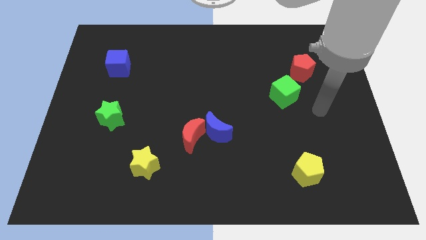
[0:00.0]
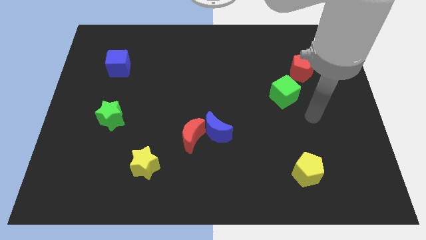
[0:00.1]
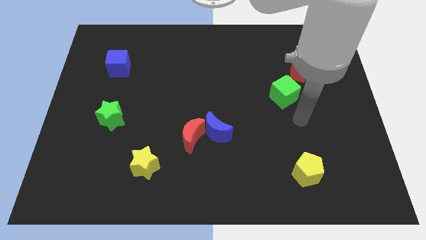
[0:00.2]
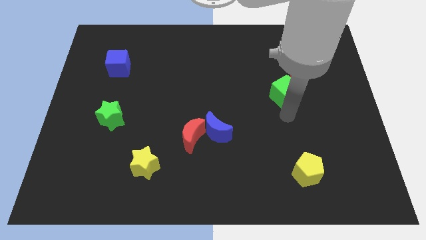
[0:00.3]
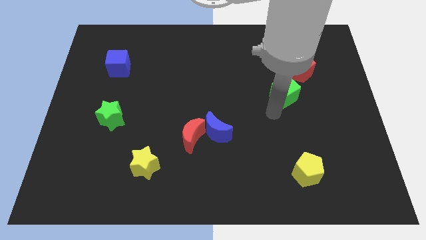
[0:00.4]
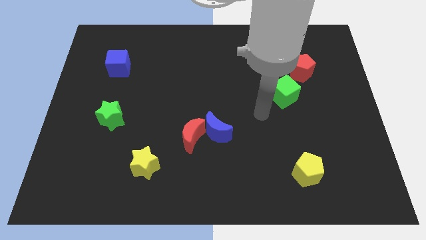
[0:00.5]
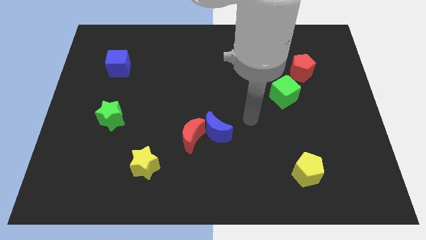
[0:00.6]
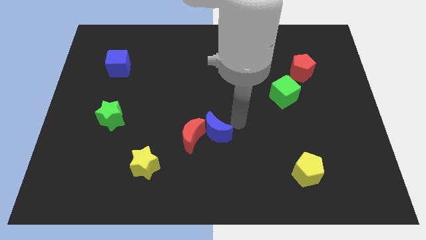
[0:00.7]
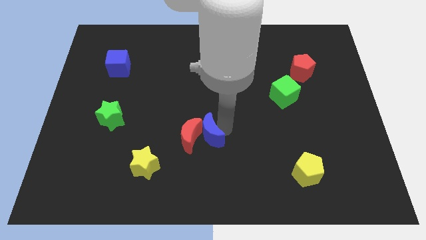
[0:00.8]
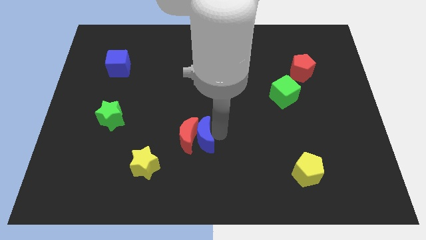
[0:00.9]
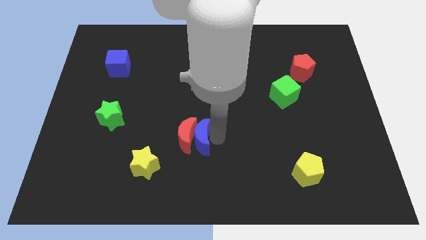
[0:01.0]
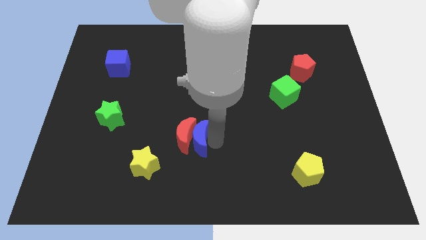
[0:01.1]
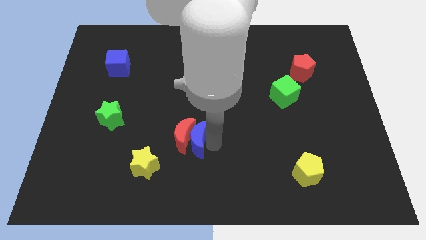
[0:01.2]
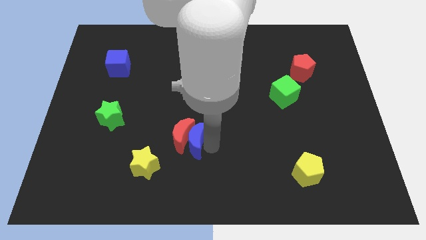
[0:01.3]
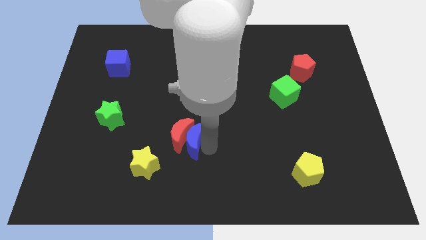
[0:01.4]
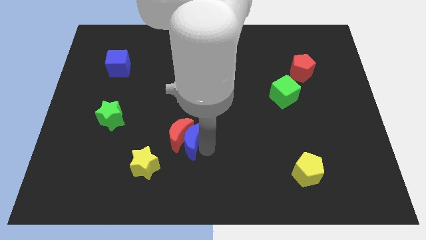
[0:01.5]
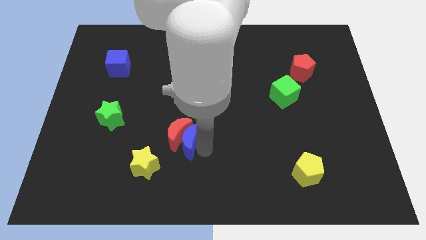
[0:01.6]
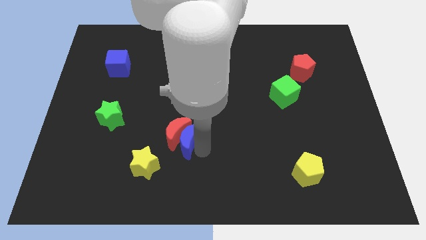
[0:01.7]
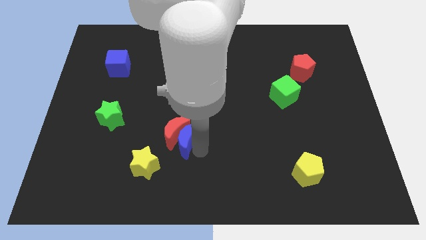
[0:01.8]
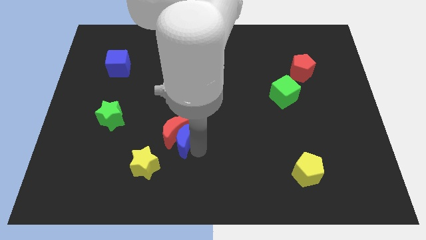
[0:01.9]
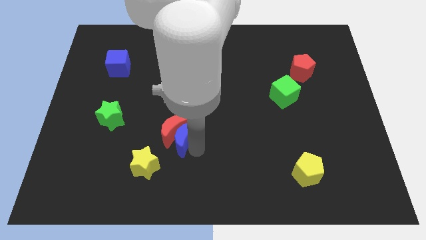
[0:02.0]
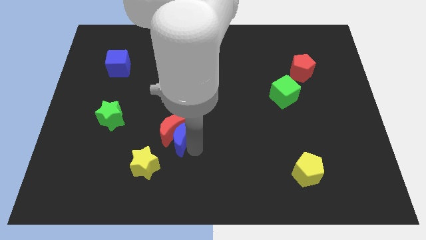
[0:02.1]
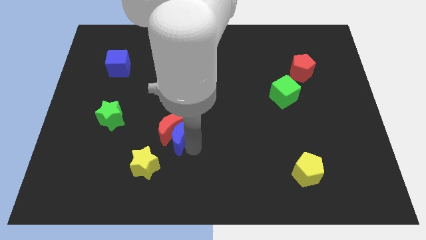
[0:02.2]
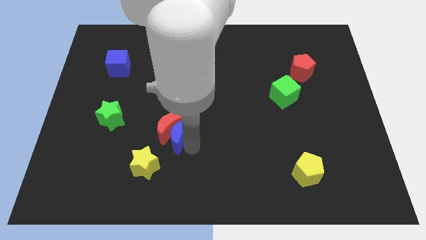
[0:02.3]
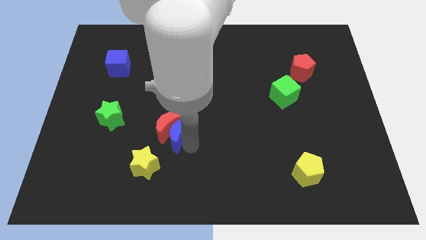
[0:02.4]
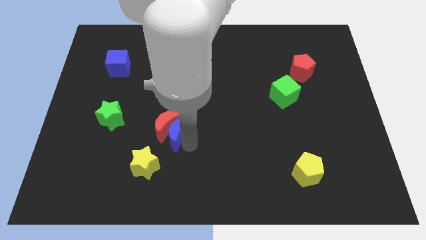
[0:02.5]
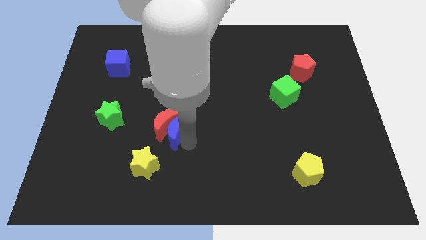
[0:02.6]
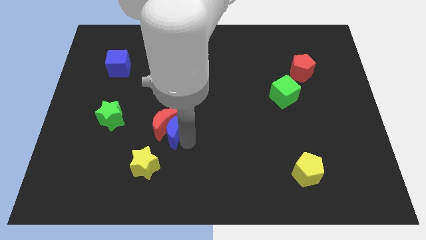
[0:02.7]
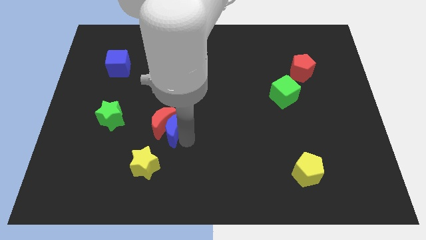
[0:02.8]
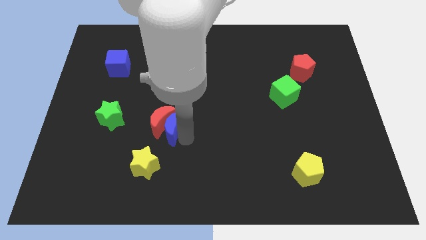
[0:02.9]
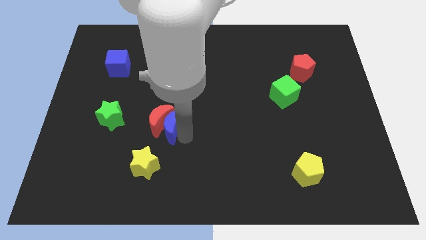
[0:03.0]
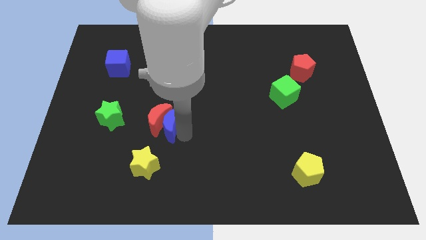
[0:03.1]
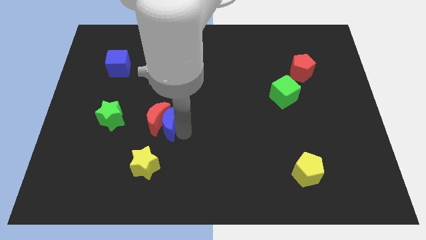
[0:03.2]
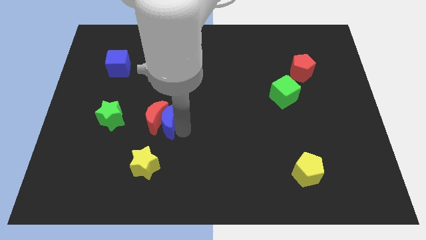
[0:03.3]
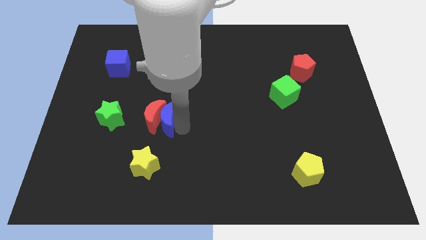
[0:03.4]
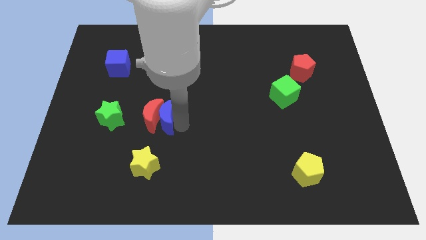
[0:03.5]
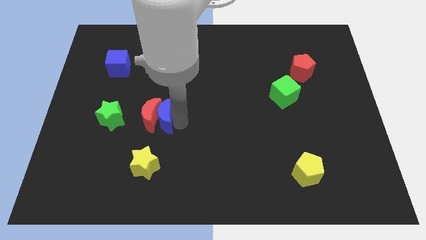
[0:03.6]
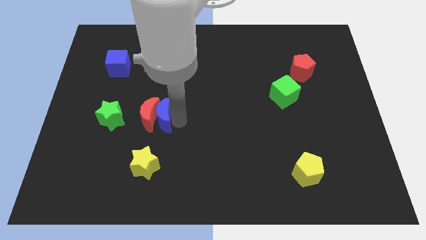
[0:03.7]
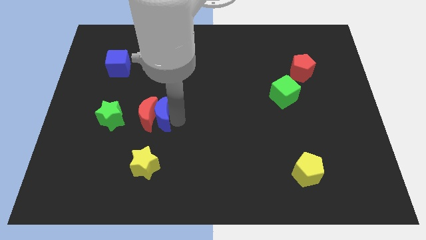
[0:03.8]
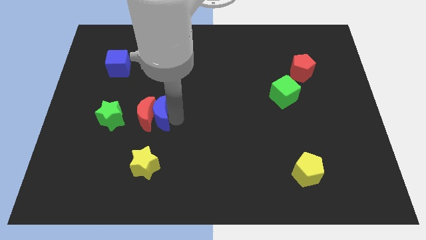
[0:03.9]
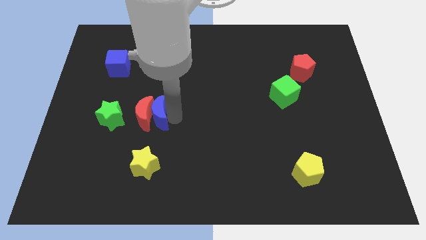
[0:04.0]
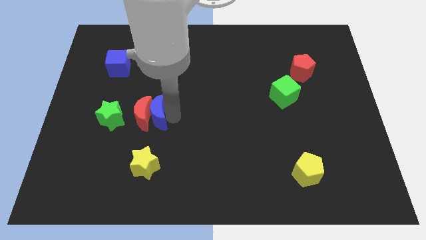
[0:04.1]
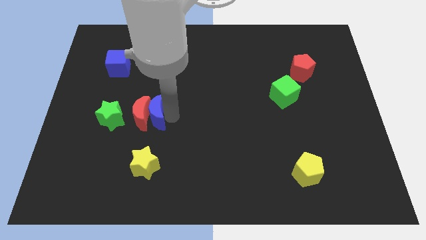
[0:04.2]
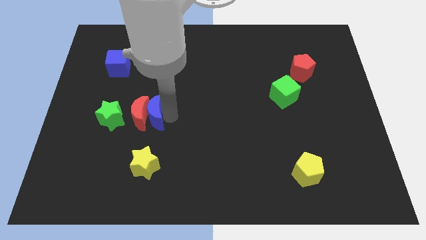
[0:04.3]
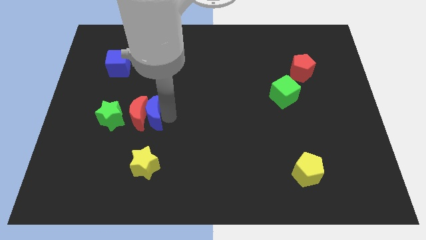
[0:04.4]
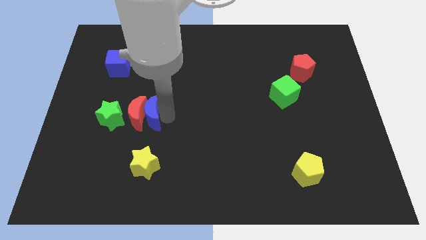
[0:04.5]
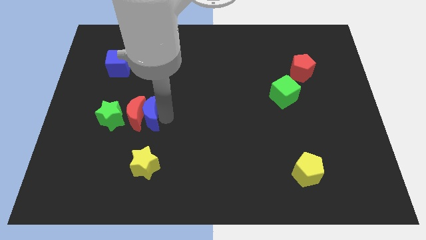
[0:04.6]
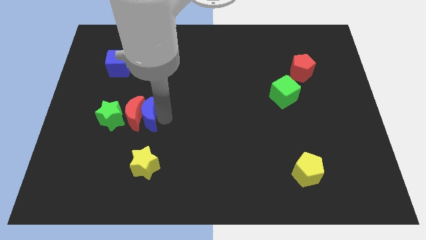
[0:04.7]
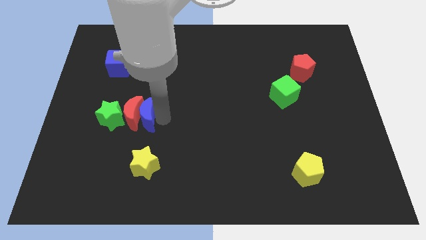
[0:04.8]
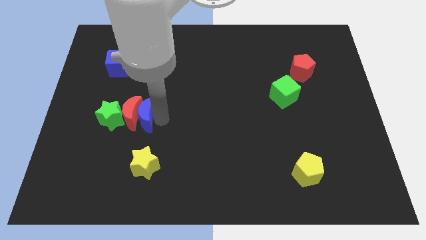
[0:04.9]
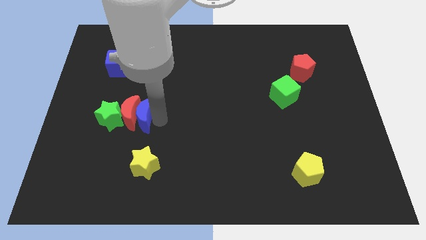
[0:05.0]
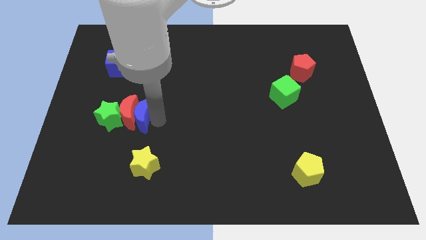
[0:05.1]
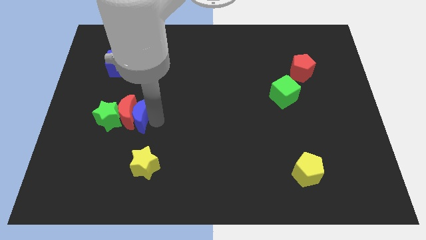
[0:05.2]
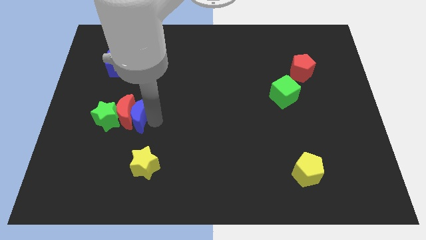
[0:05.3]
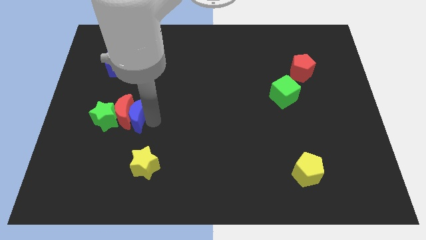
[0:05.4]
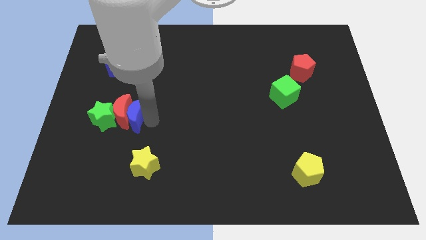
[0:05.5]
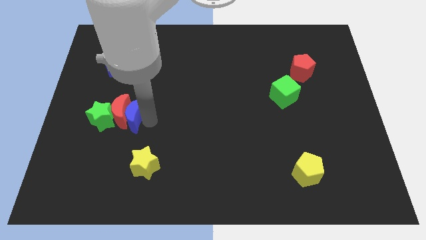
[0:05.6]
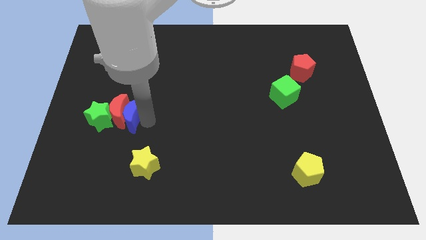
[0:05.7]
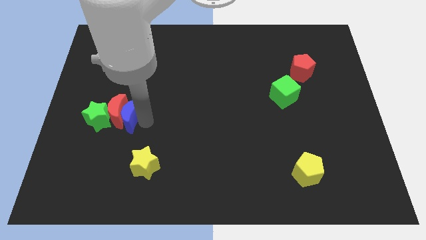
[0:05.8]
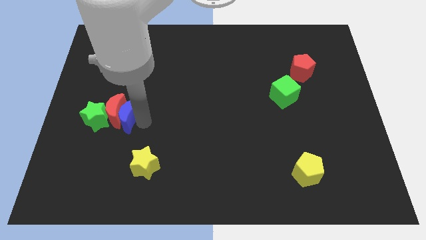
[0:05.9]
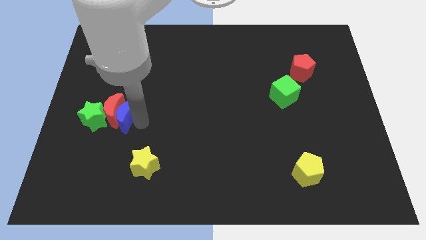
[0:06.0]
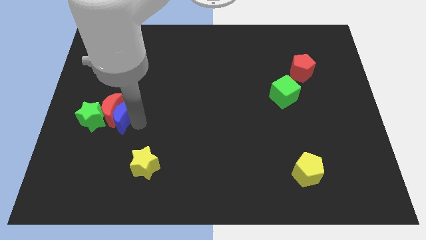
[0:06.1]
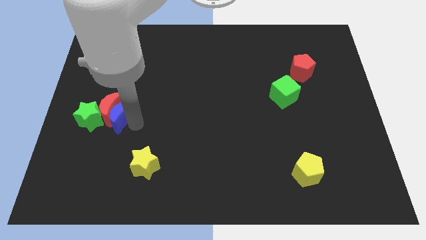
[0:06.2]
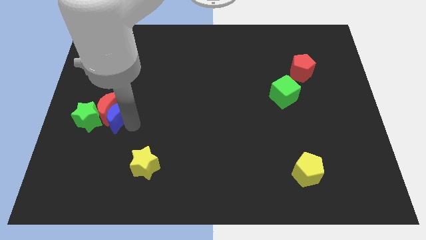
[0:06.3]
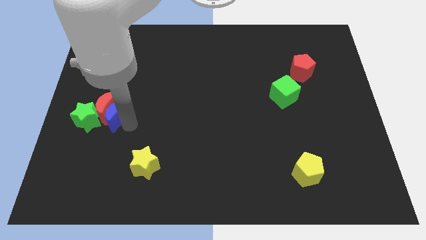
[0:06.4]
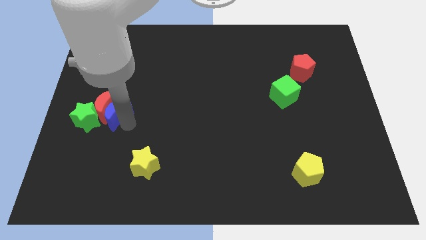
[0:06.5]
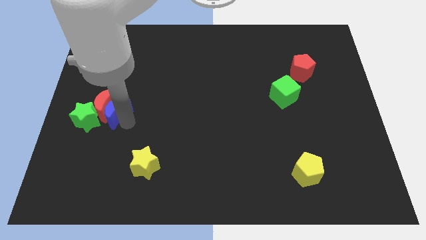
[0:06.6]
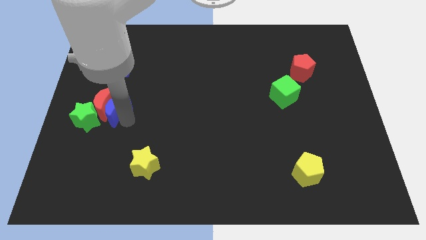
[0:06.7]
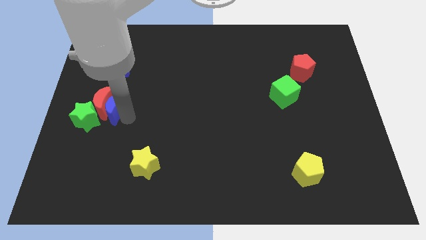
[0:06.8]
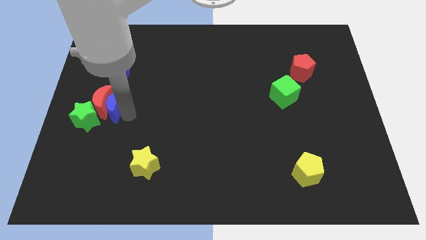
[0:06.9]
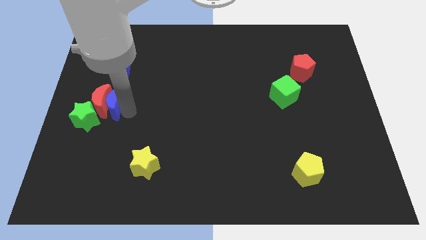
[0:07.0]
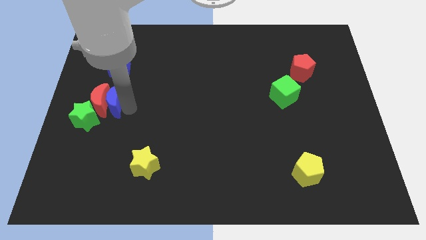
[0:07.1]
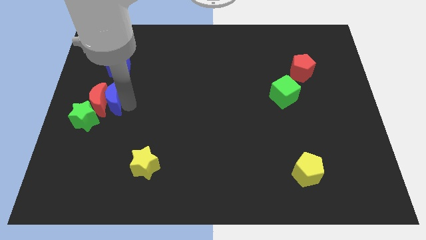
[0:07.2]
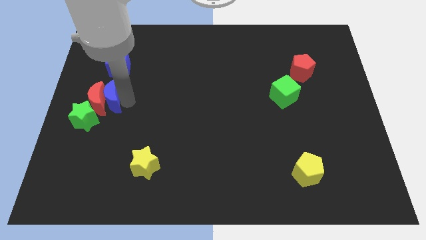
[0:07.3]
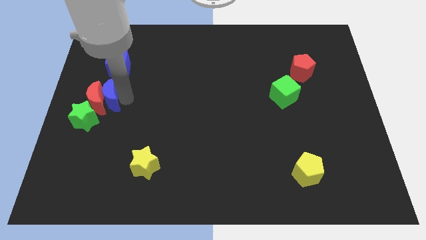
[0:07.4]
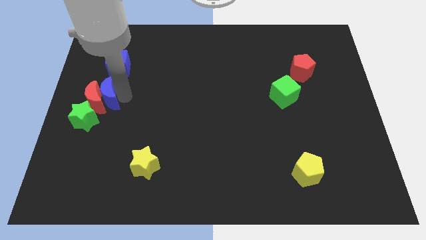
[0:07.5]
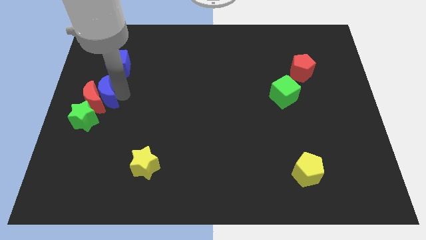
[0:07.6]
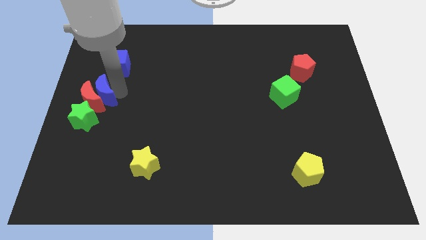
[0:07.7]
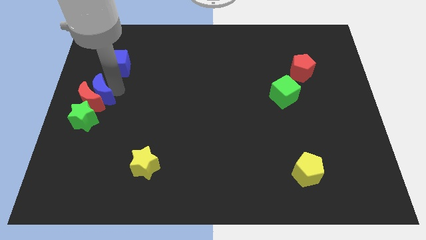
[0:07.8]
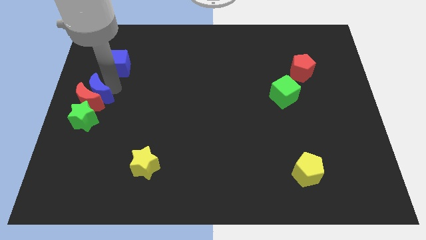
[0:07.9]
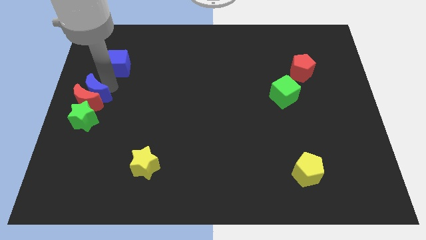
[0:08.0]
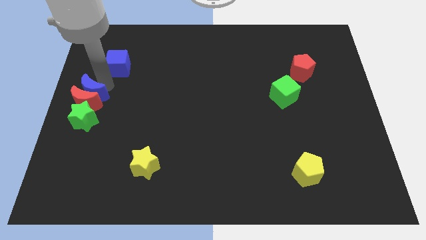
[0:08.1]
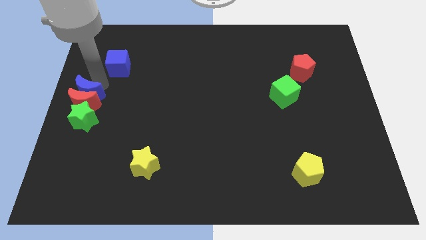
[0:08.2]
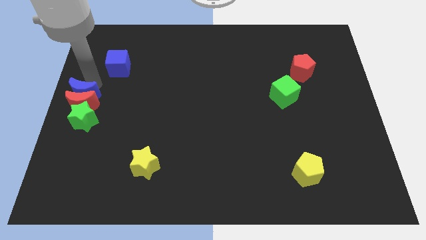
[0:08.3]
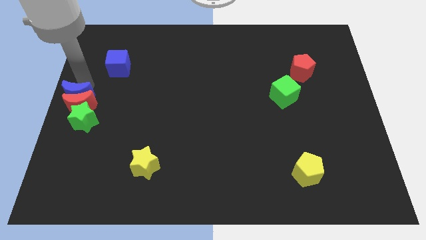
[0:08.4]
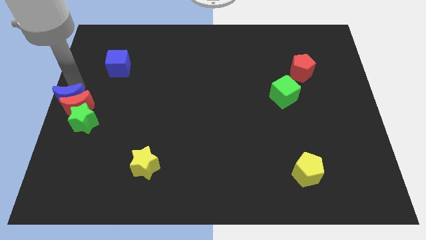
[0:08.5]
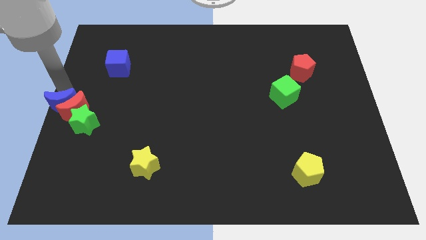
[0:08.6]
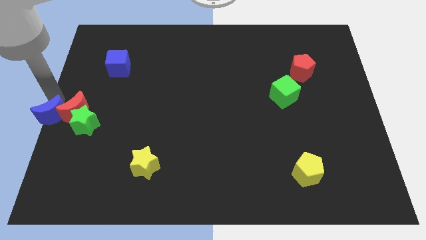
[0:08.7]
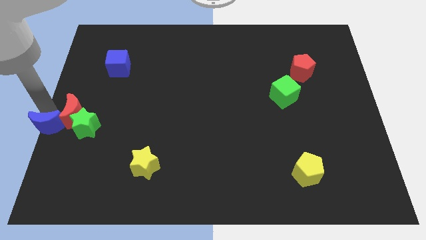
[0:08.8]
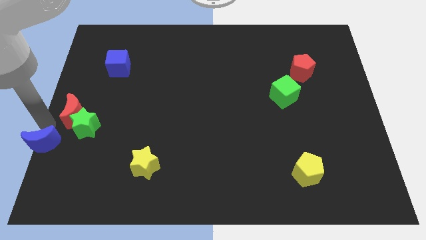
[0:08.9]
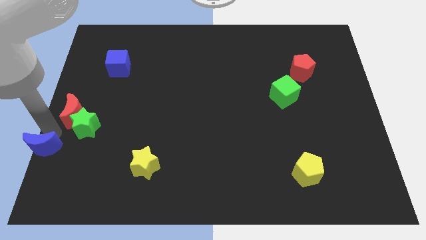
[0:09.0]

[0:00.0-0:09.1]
pull the red moon apart from the blue moon

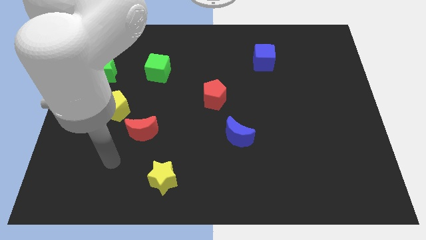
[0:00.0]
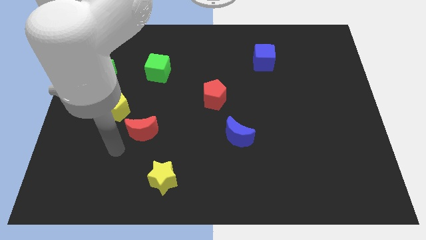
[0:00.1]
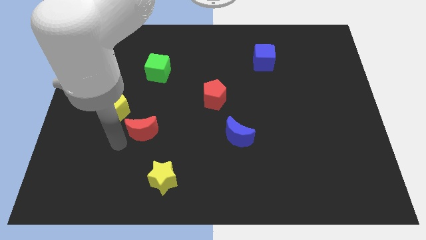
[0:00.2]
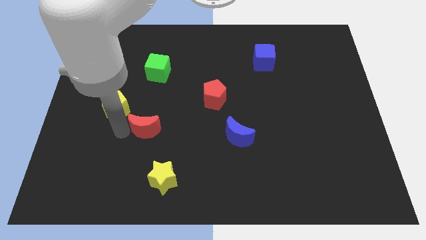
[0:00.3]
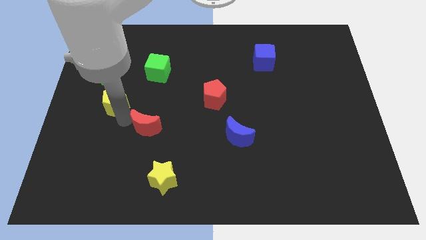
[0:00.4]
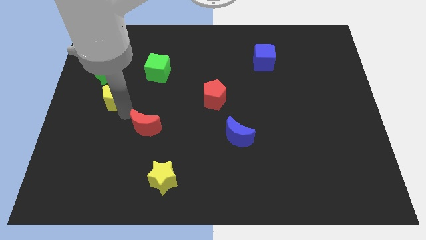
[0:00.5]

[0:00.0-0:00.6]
pull the red moon apart from the yellow pentagon
